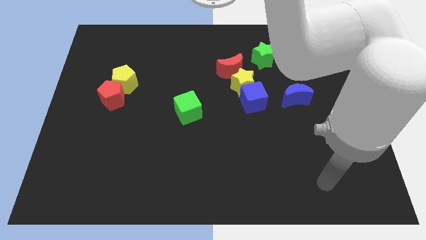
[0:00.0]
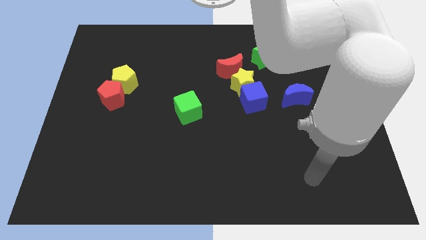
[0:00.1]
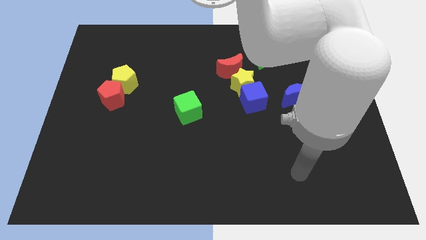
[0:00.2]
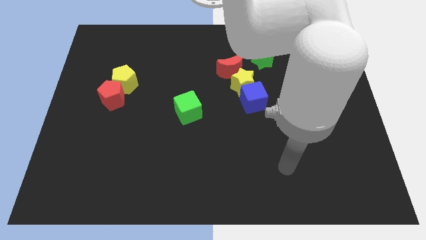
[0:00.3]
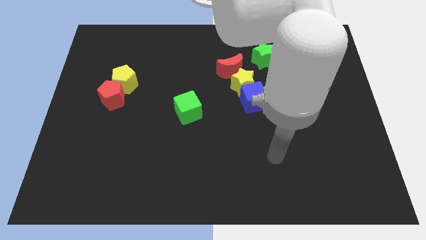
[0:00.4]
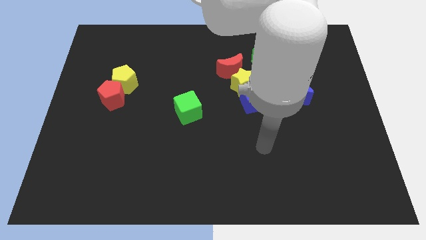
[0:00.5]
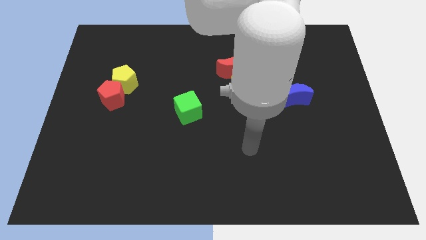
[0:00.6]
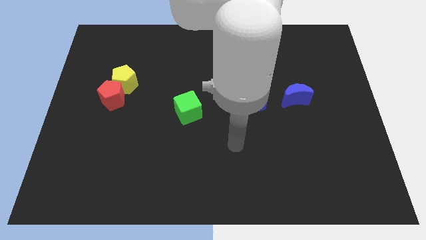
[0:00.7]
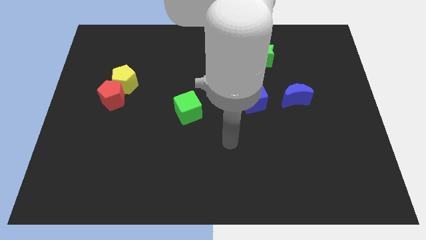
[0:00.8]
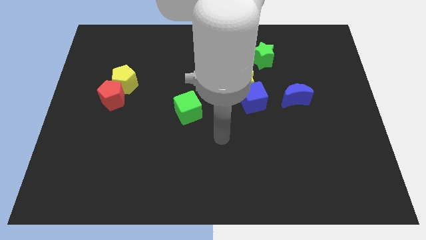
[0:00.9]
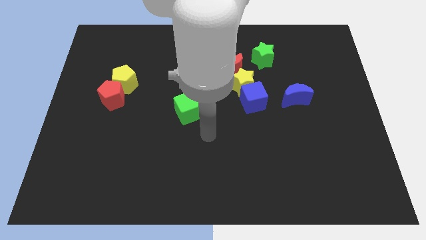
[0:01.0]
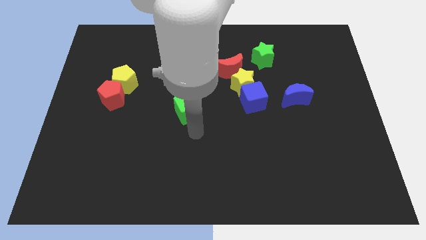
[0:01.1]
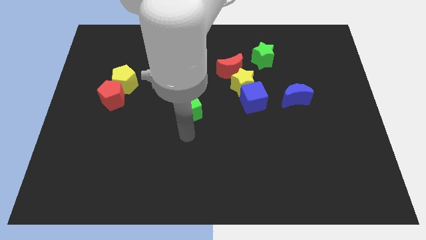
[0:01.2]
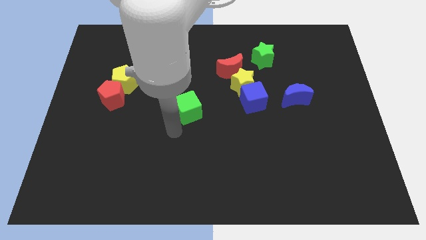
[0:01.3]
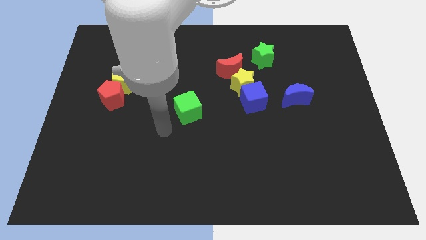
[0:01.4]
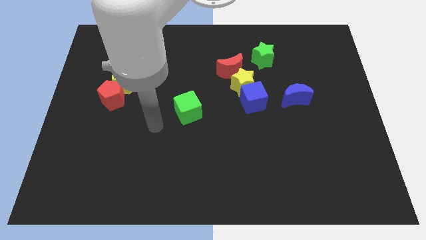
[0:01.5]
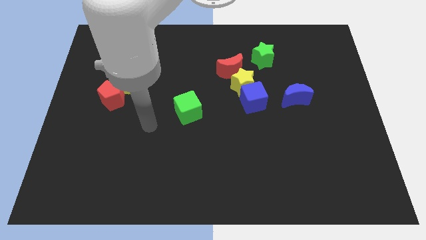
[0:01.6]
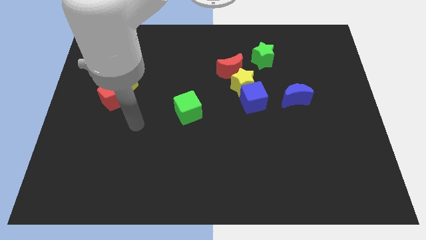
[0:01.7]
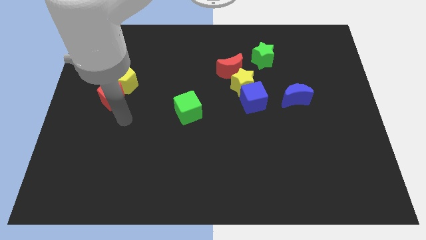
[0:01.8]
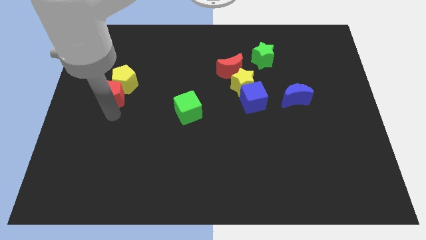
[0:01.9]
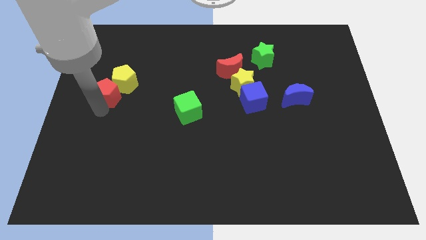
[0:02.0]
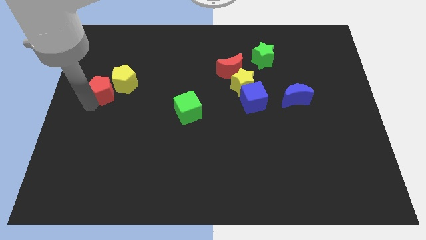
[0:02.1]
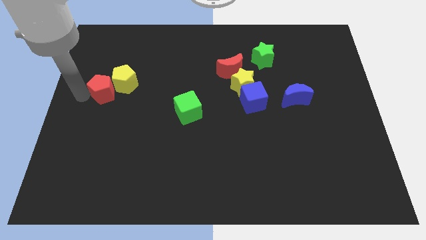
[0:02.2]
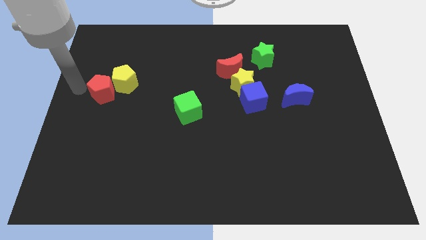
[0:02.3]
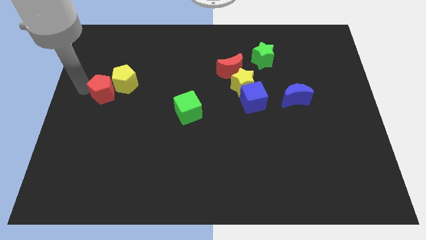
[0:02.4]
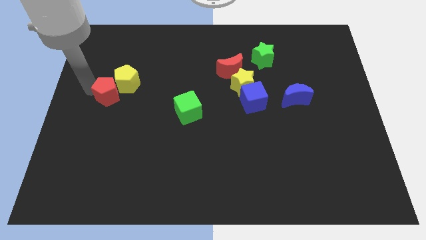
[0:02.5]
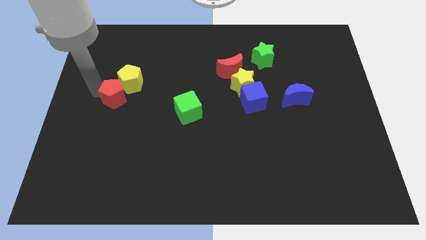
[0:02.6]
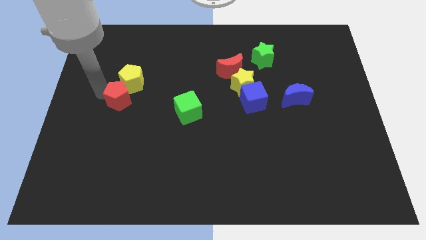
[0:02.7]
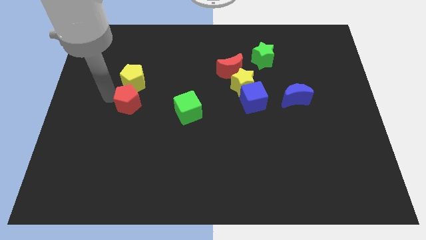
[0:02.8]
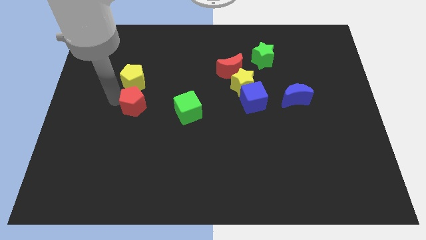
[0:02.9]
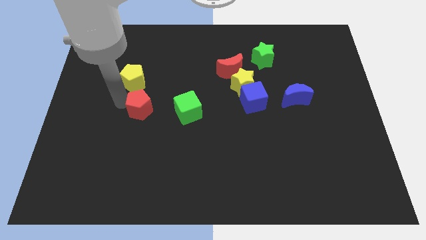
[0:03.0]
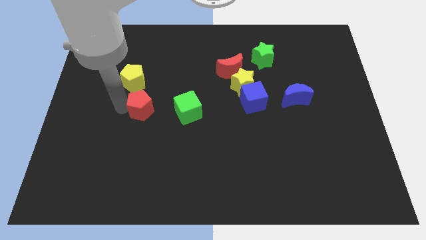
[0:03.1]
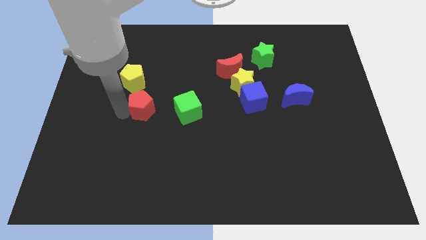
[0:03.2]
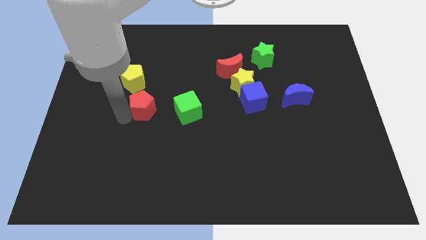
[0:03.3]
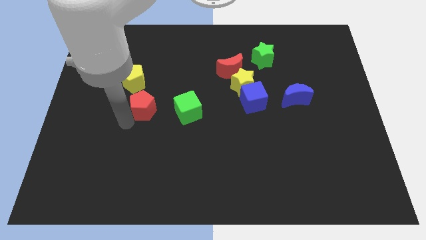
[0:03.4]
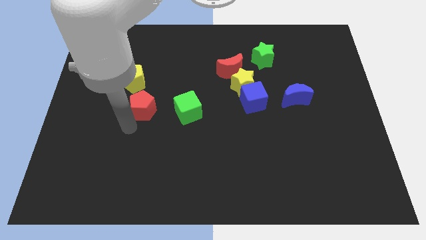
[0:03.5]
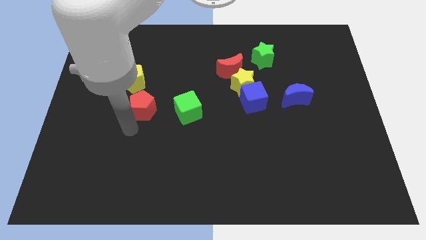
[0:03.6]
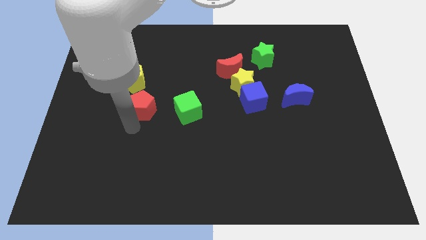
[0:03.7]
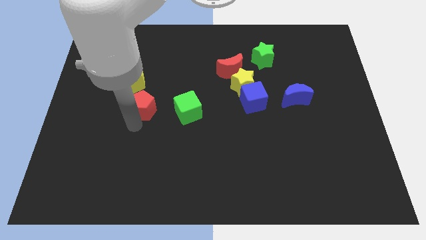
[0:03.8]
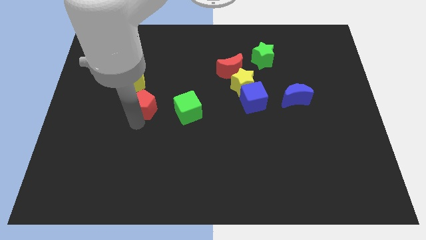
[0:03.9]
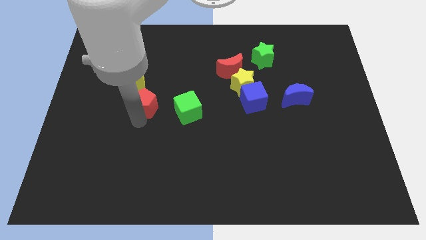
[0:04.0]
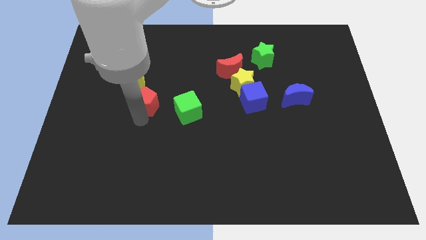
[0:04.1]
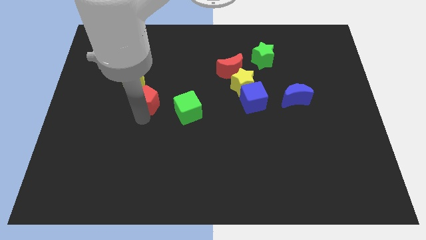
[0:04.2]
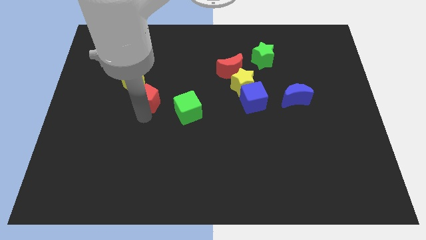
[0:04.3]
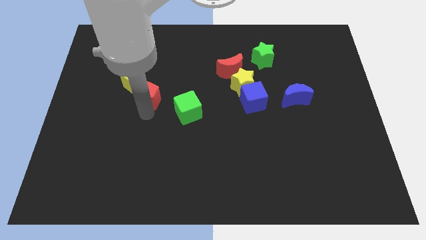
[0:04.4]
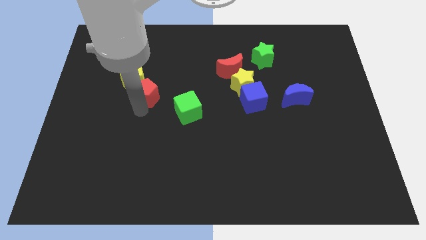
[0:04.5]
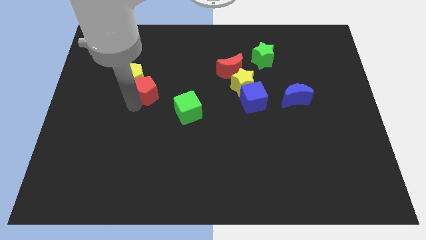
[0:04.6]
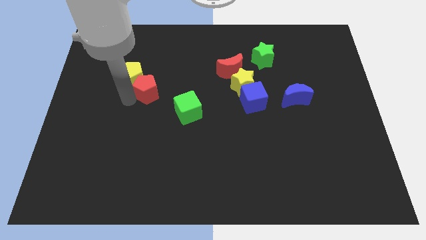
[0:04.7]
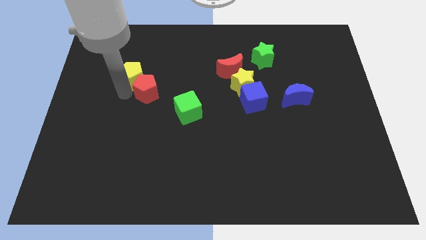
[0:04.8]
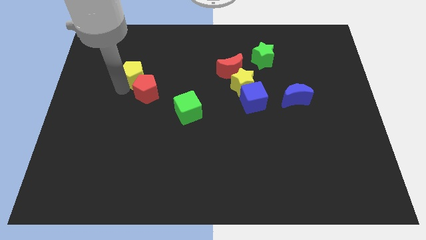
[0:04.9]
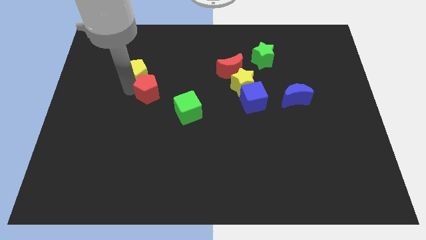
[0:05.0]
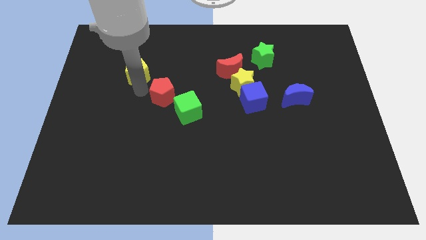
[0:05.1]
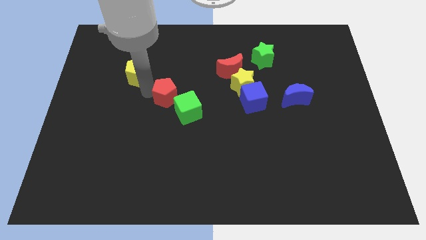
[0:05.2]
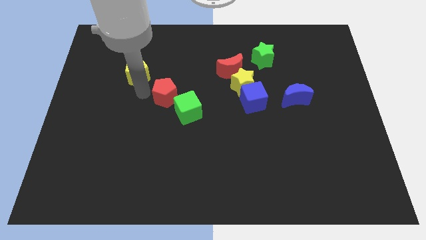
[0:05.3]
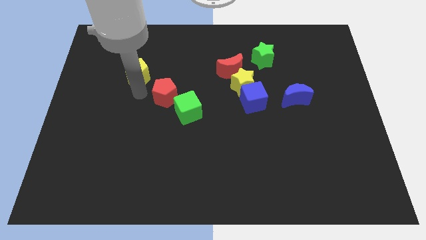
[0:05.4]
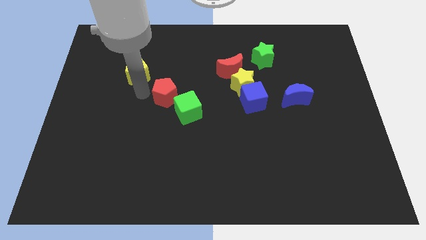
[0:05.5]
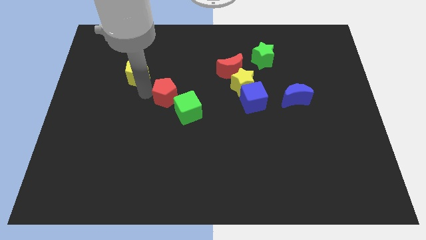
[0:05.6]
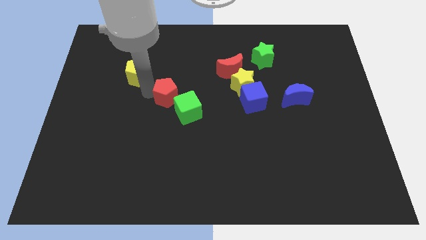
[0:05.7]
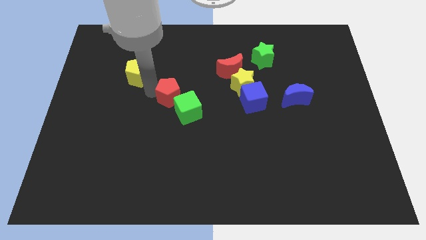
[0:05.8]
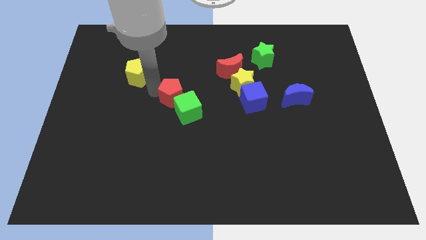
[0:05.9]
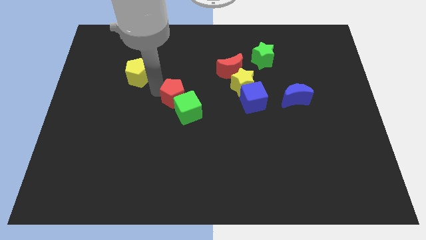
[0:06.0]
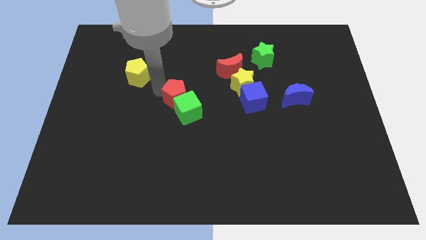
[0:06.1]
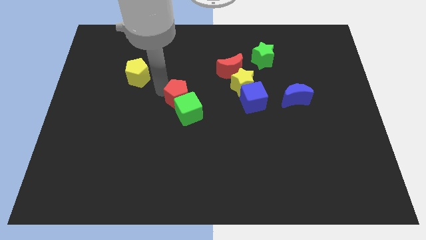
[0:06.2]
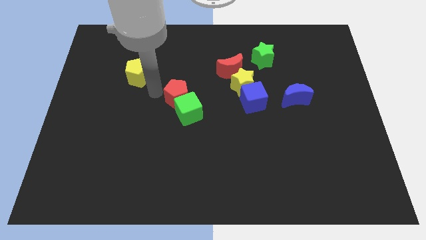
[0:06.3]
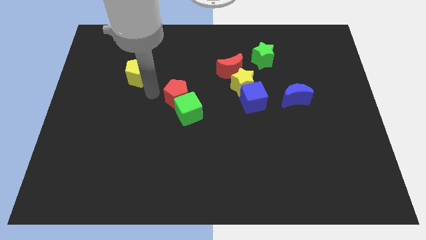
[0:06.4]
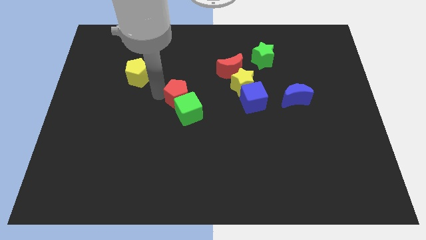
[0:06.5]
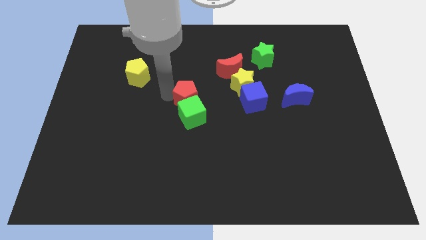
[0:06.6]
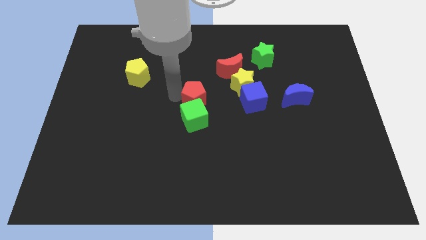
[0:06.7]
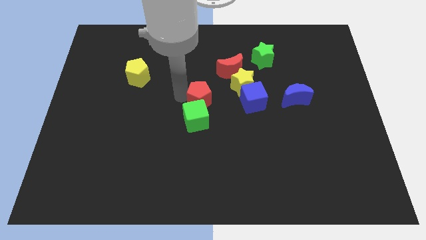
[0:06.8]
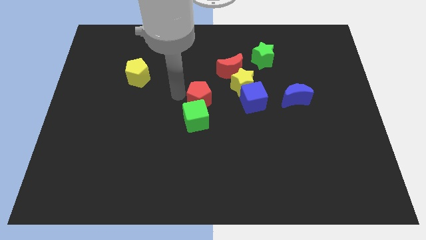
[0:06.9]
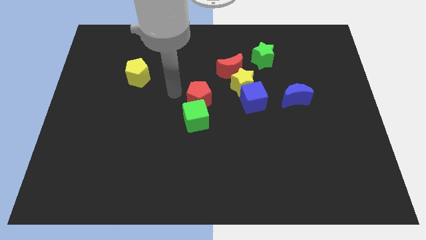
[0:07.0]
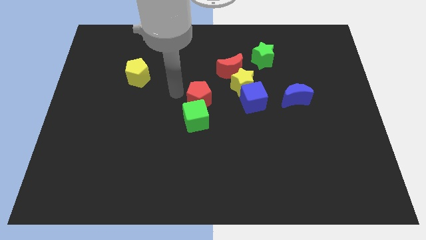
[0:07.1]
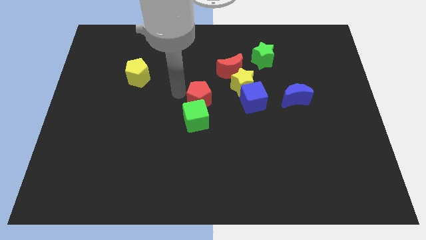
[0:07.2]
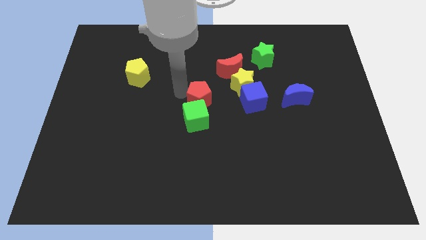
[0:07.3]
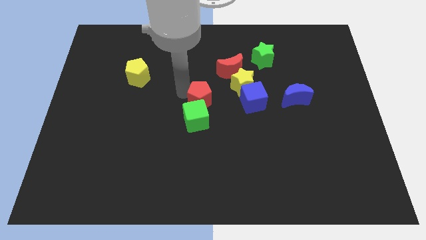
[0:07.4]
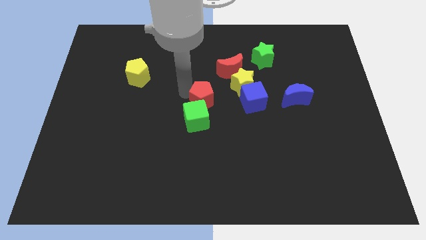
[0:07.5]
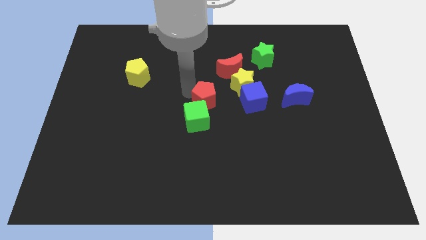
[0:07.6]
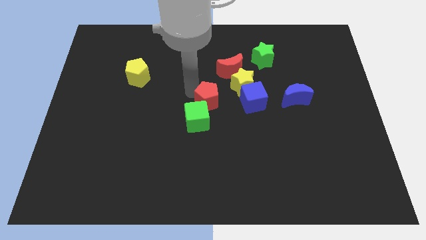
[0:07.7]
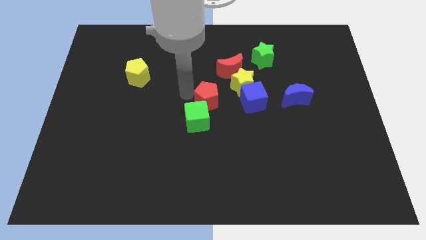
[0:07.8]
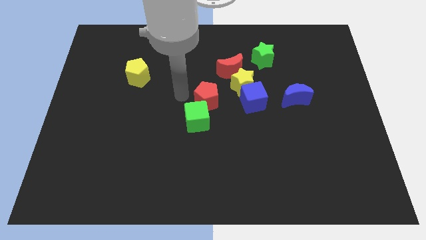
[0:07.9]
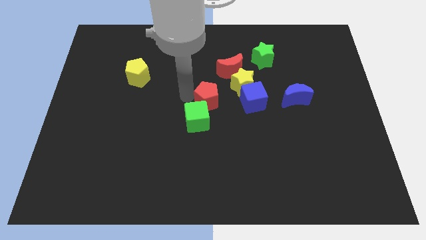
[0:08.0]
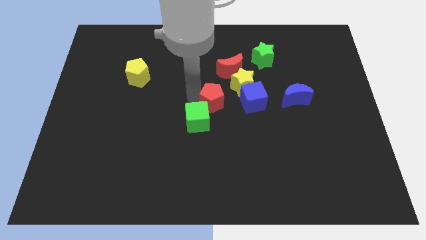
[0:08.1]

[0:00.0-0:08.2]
put the red pentagon to the bottom of the red moon
